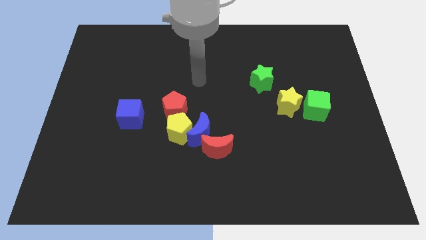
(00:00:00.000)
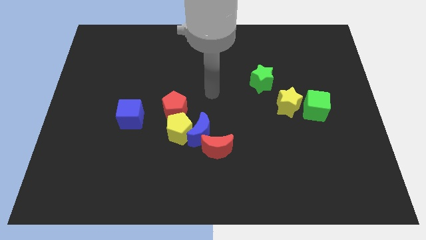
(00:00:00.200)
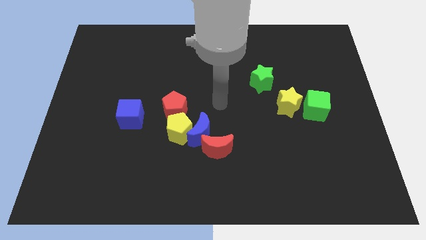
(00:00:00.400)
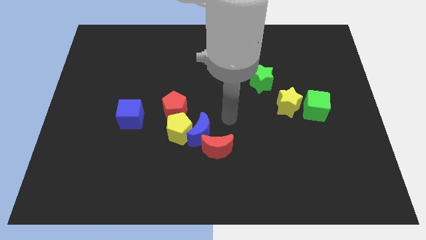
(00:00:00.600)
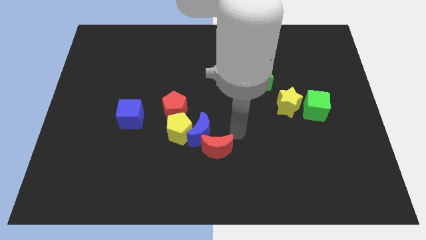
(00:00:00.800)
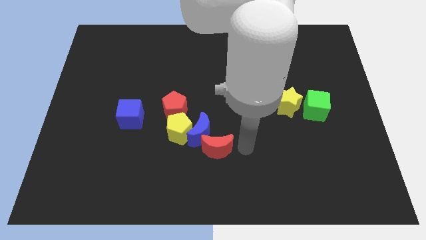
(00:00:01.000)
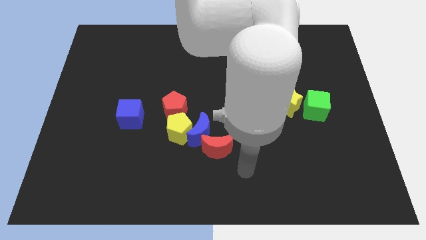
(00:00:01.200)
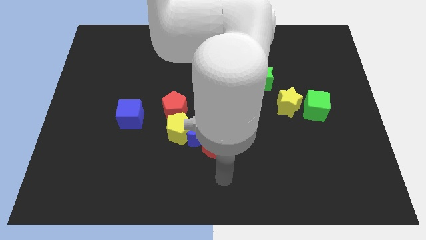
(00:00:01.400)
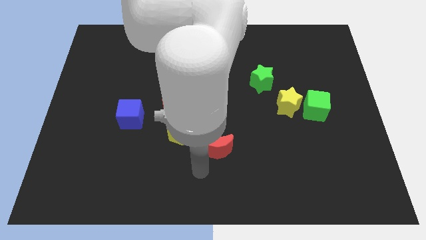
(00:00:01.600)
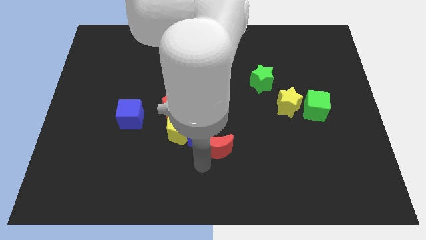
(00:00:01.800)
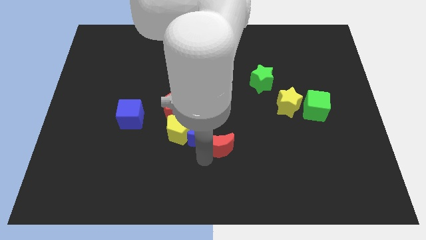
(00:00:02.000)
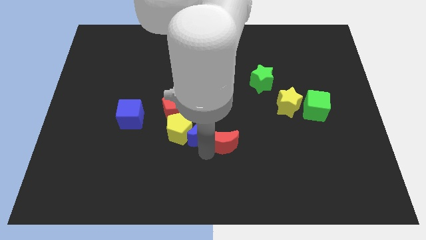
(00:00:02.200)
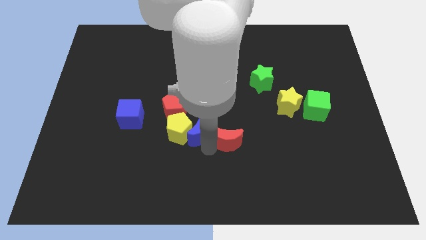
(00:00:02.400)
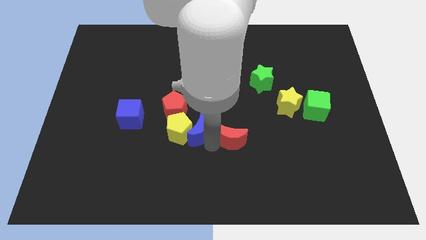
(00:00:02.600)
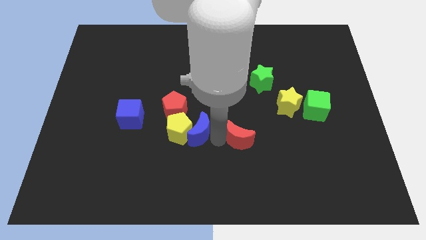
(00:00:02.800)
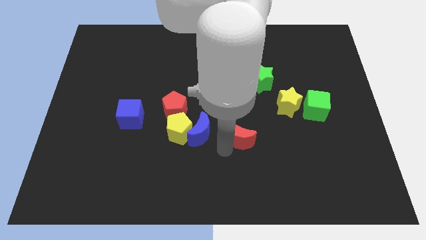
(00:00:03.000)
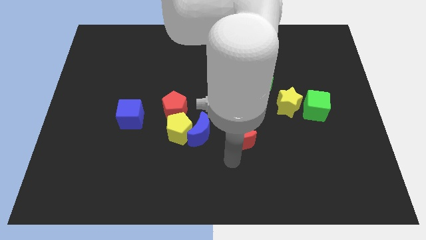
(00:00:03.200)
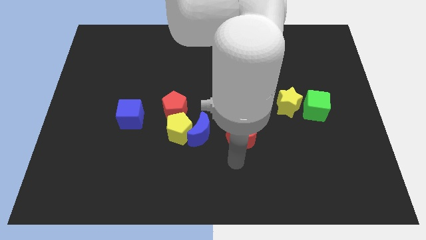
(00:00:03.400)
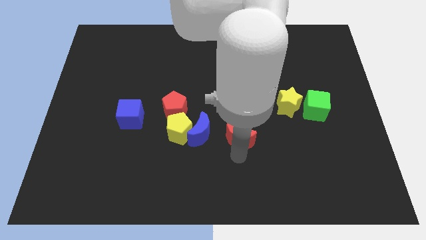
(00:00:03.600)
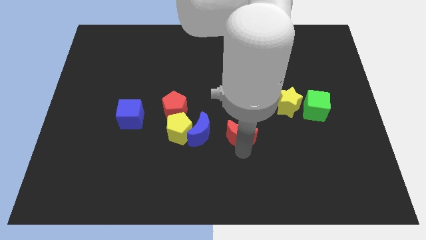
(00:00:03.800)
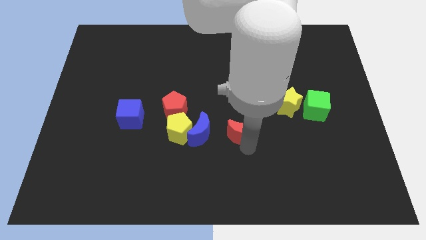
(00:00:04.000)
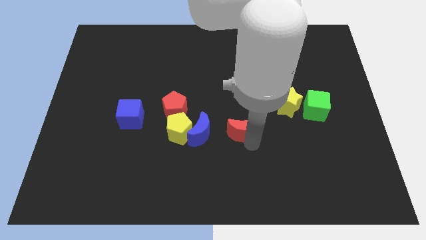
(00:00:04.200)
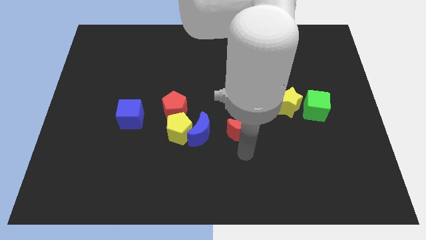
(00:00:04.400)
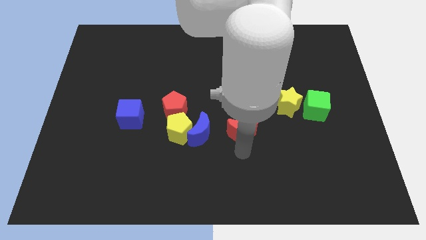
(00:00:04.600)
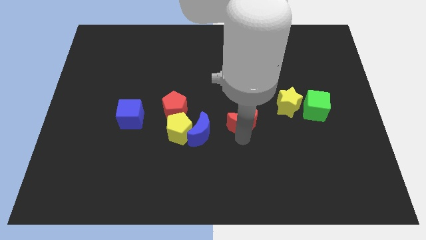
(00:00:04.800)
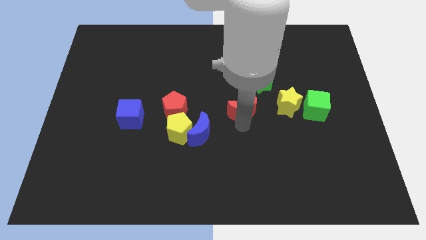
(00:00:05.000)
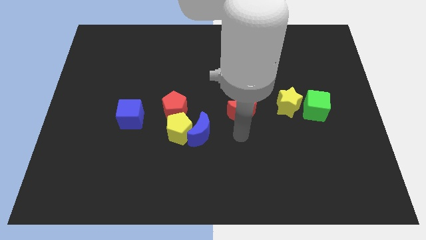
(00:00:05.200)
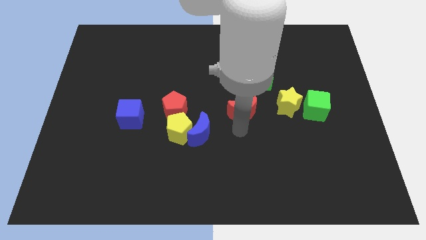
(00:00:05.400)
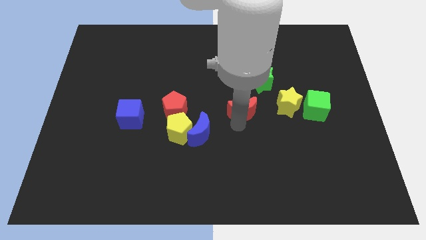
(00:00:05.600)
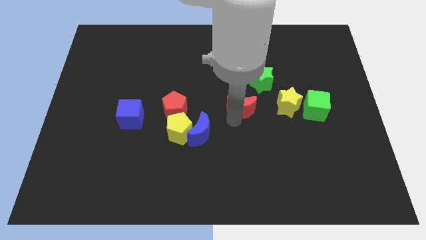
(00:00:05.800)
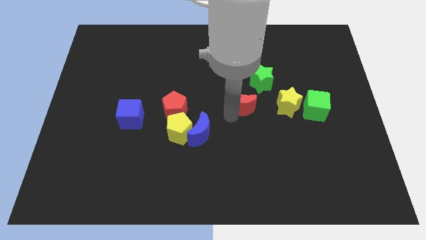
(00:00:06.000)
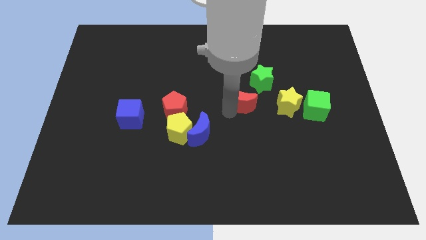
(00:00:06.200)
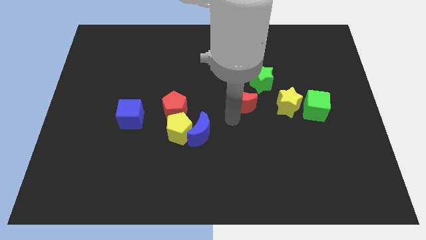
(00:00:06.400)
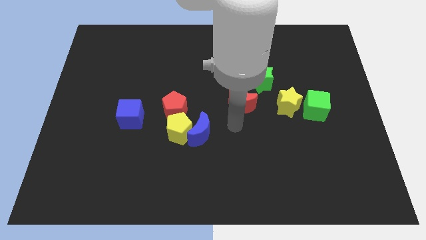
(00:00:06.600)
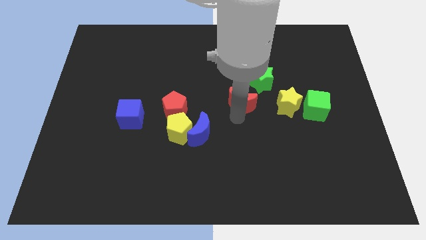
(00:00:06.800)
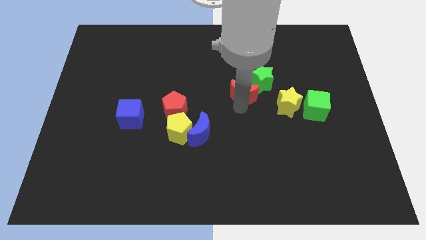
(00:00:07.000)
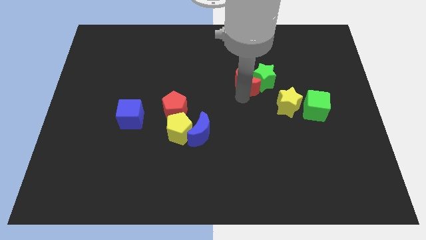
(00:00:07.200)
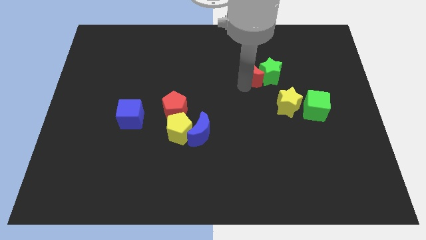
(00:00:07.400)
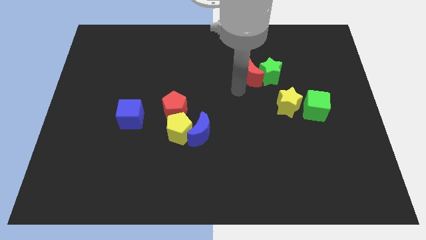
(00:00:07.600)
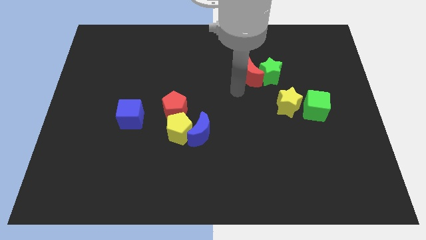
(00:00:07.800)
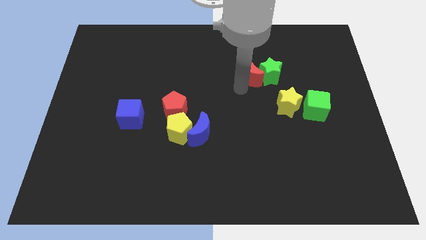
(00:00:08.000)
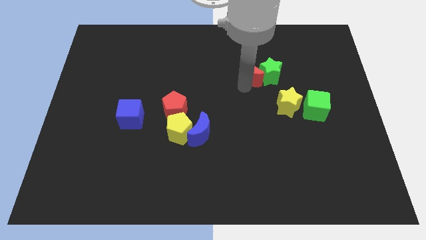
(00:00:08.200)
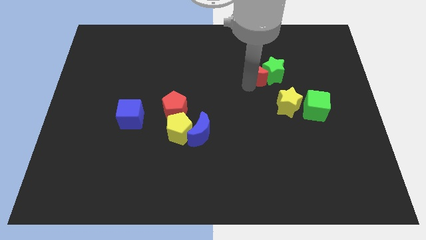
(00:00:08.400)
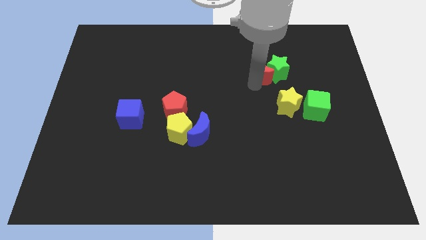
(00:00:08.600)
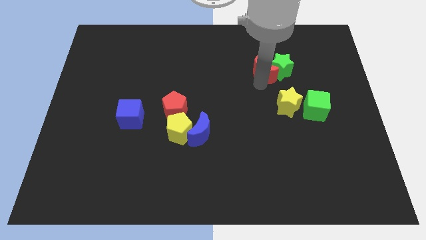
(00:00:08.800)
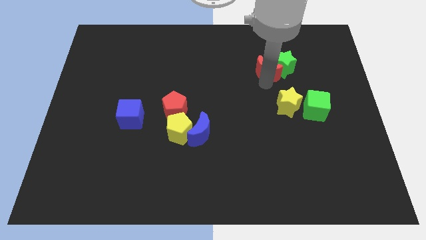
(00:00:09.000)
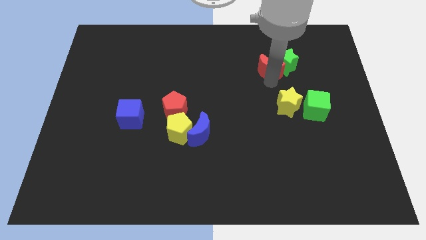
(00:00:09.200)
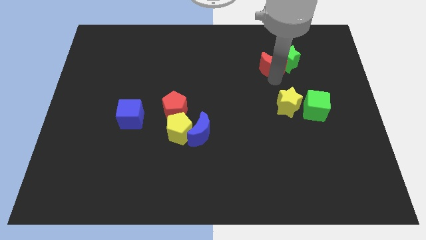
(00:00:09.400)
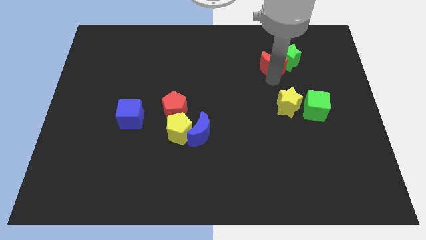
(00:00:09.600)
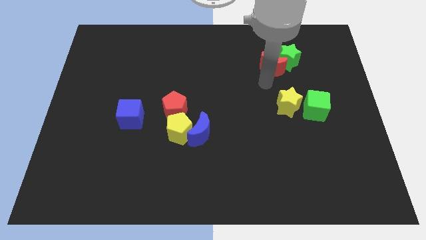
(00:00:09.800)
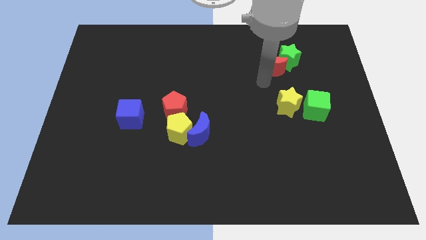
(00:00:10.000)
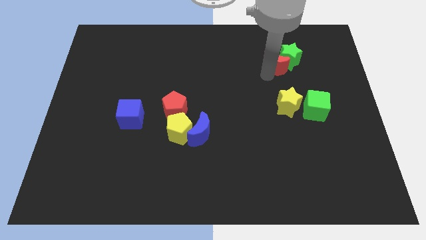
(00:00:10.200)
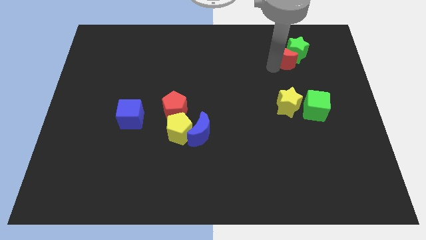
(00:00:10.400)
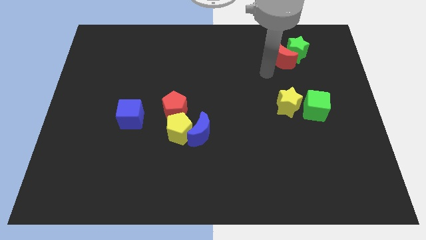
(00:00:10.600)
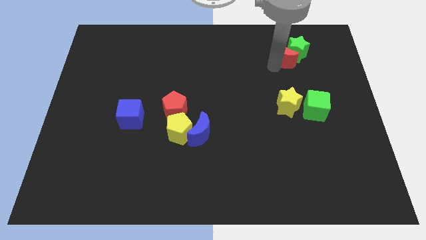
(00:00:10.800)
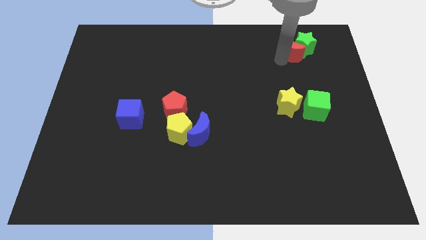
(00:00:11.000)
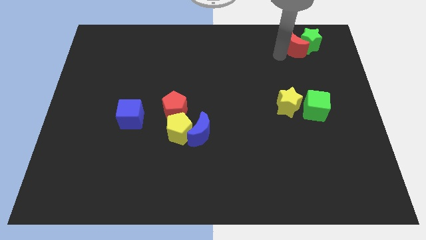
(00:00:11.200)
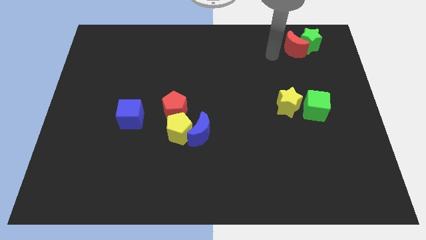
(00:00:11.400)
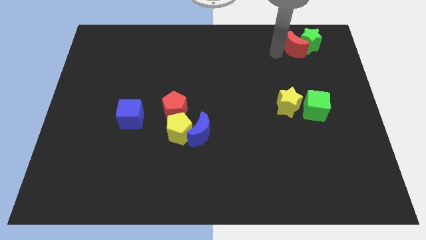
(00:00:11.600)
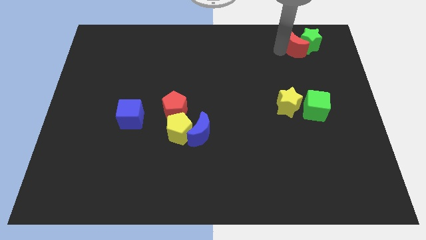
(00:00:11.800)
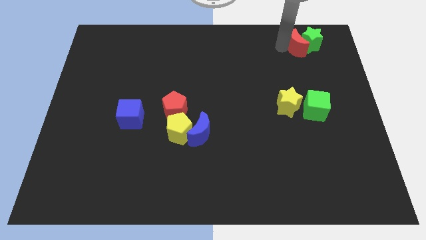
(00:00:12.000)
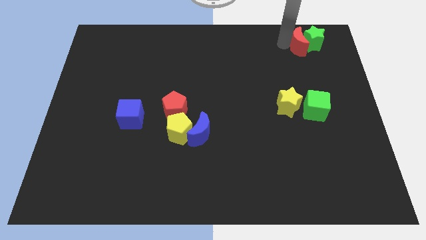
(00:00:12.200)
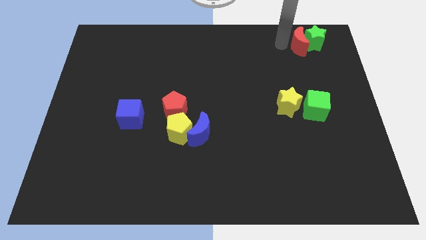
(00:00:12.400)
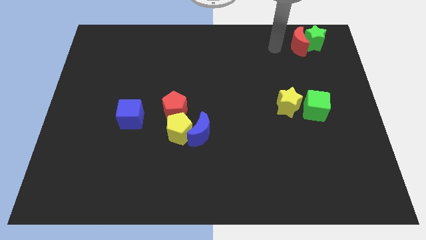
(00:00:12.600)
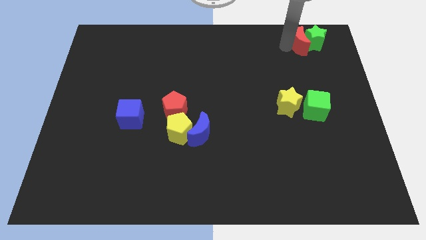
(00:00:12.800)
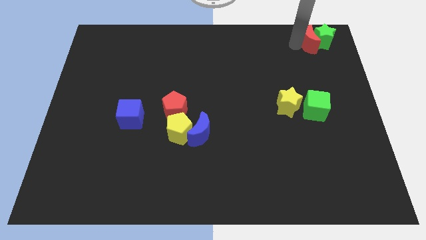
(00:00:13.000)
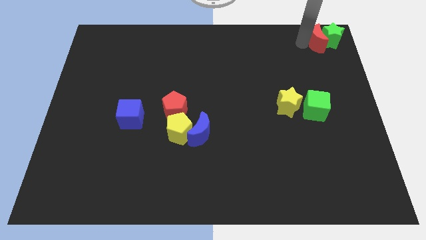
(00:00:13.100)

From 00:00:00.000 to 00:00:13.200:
put the red moon to the top right
